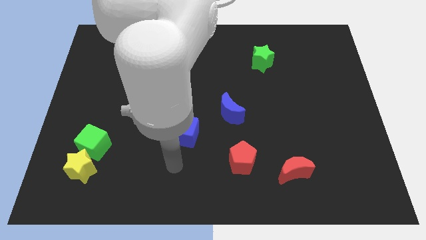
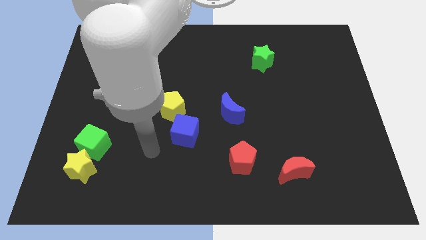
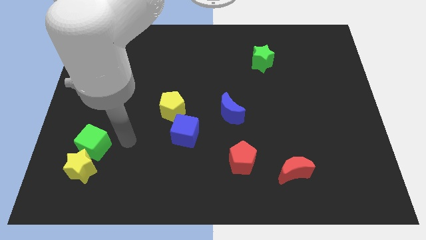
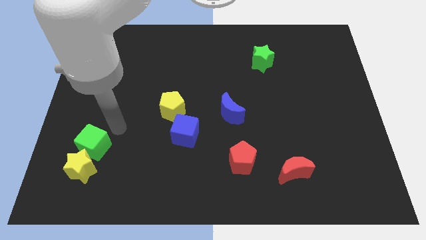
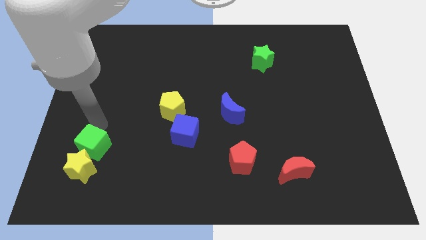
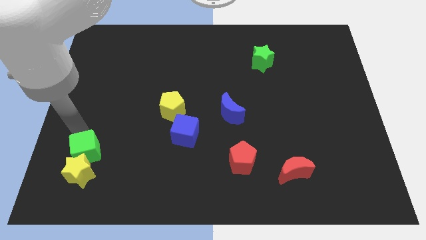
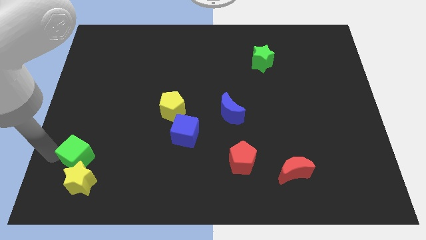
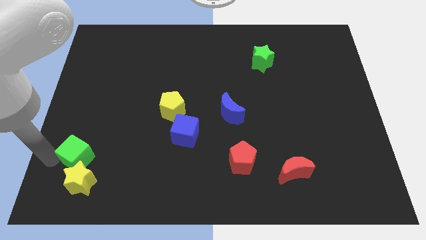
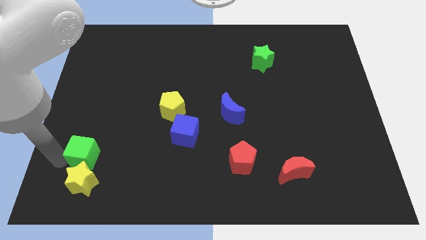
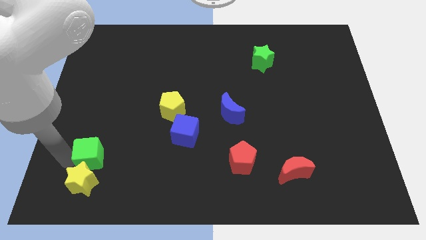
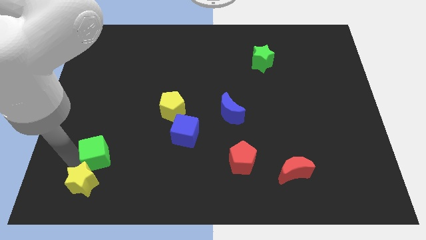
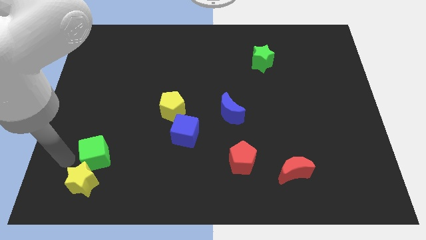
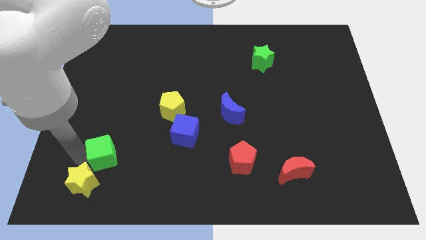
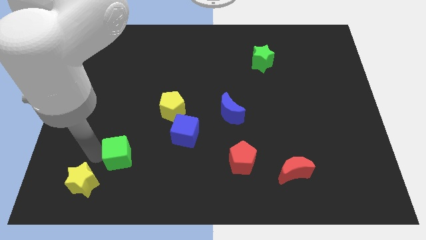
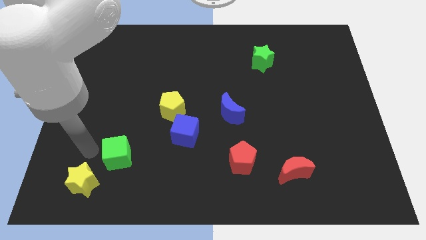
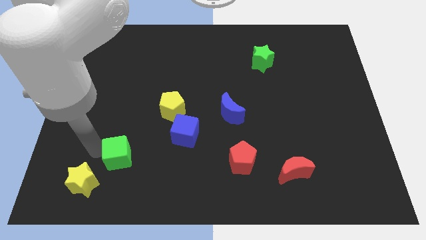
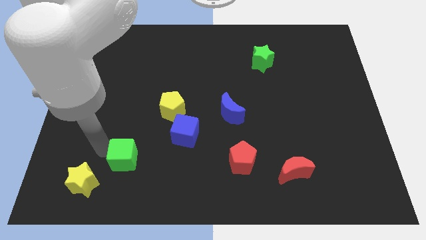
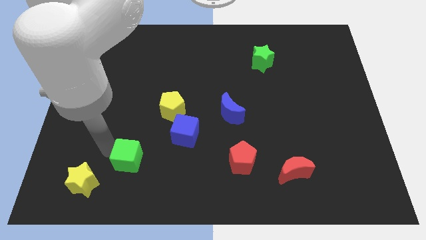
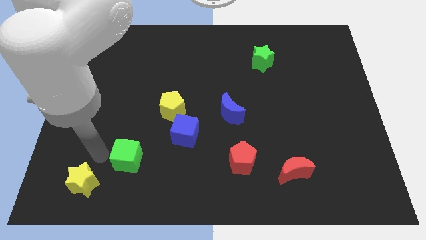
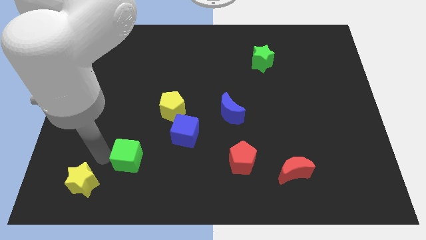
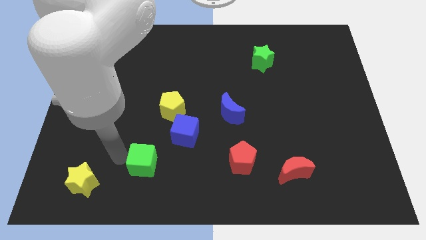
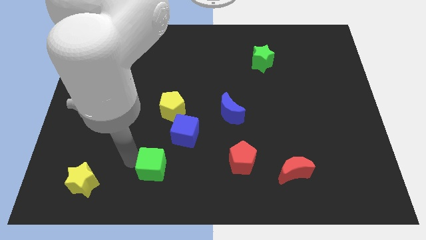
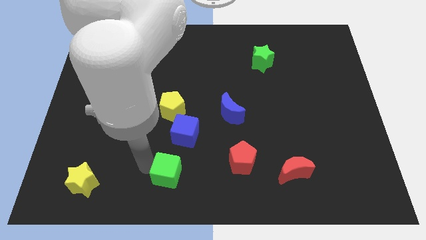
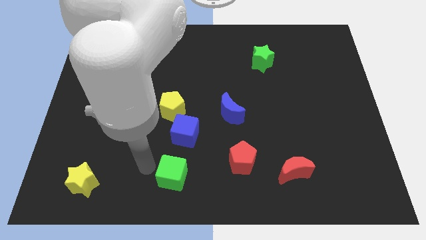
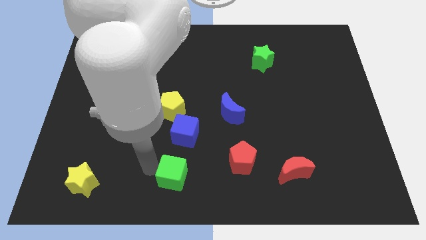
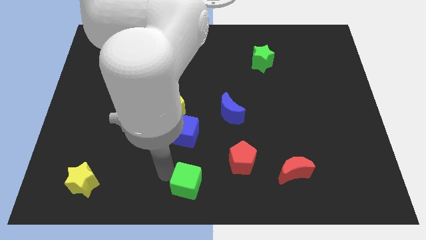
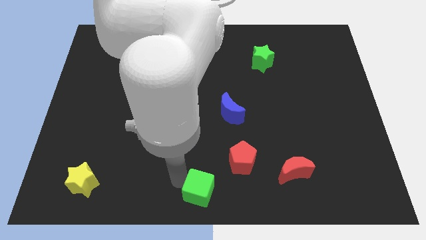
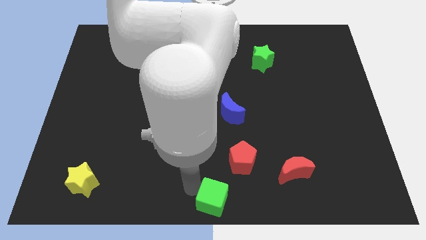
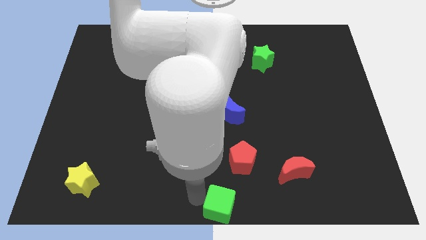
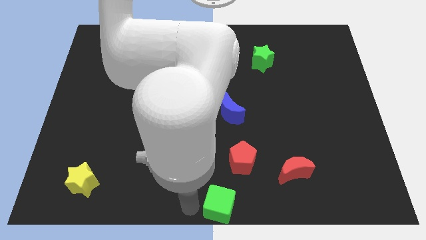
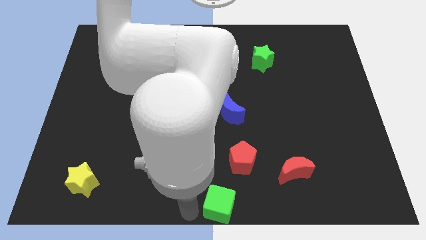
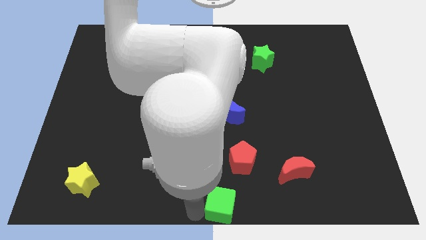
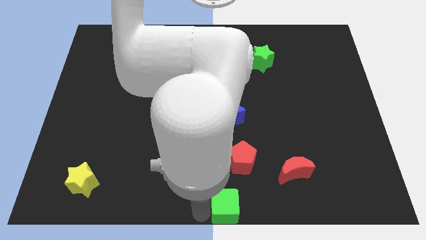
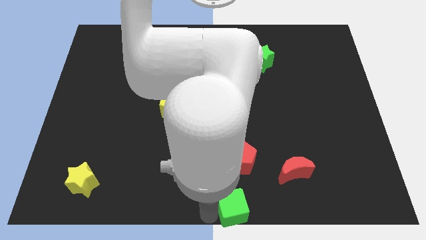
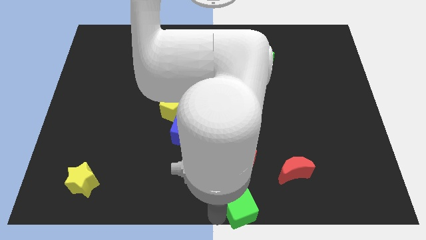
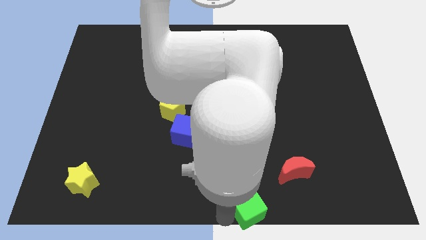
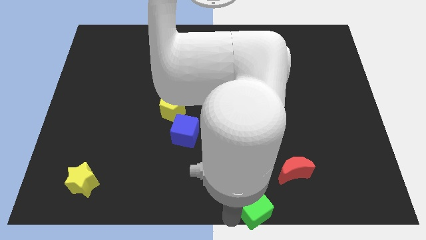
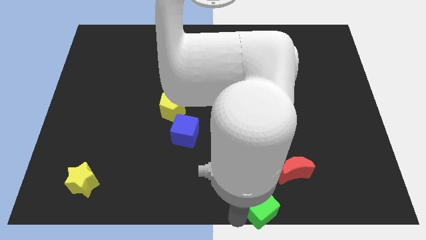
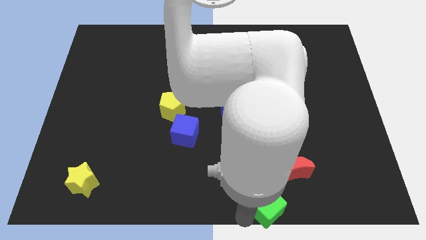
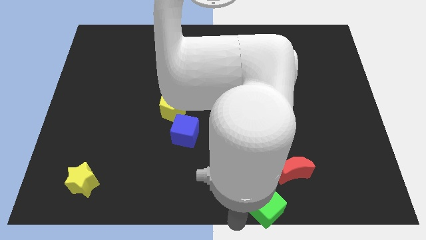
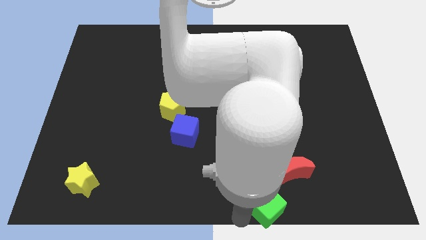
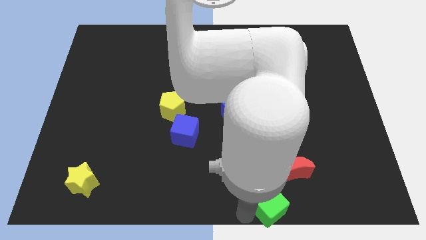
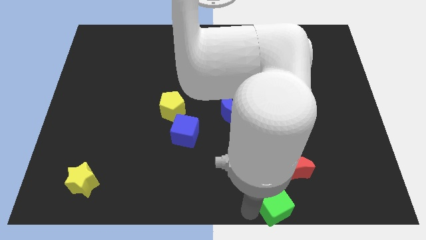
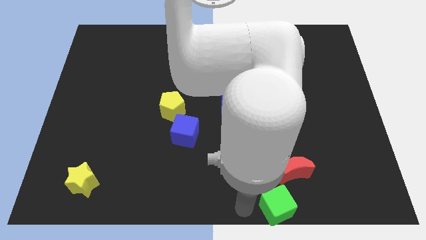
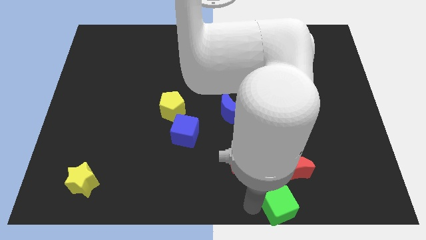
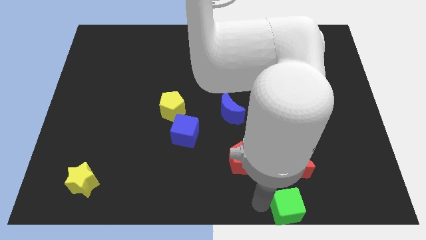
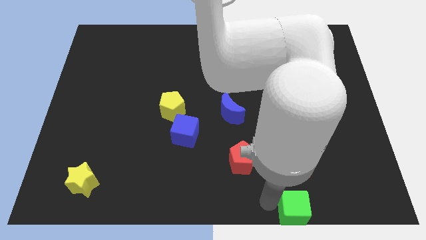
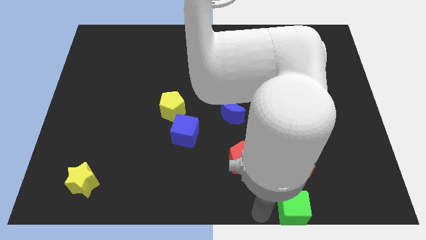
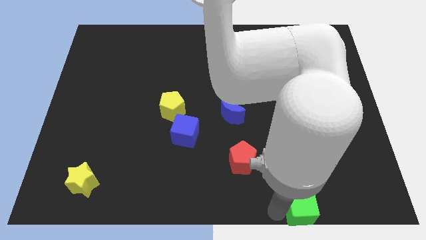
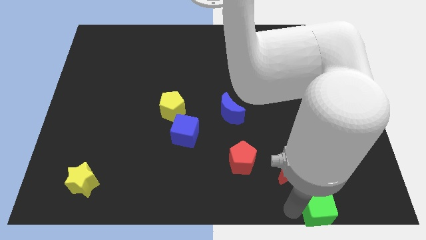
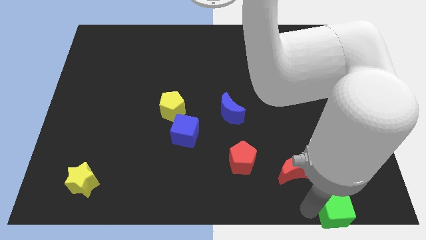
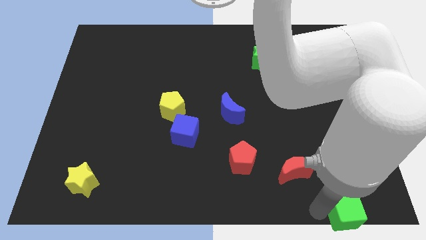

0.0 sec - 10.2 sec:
push the green cube to the bottom right corner

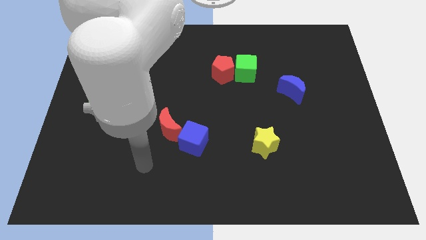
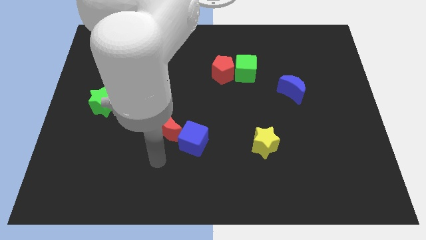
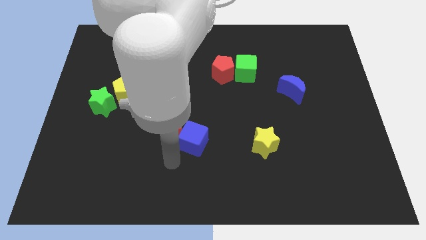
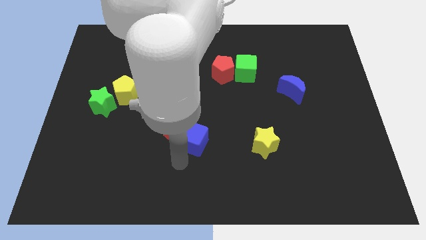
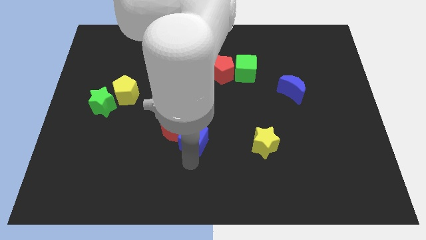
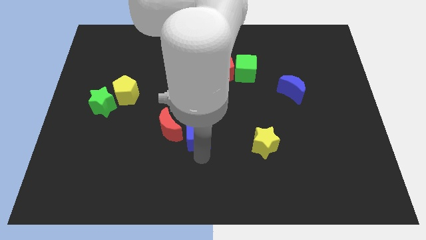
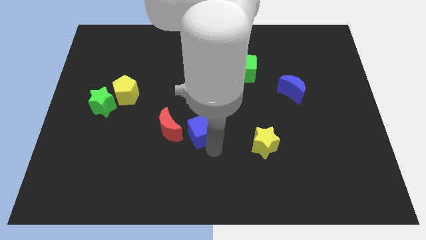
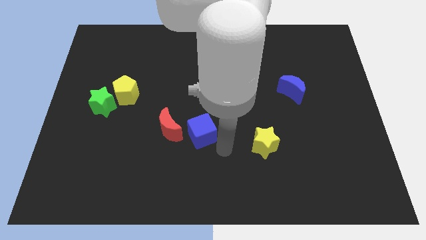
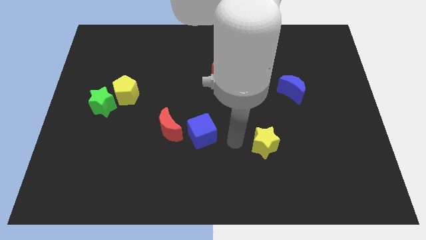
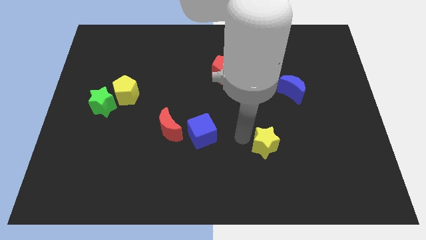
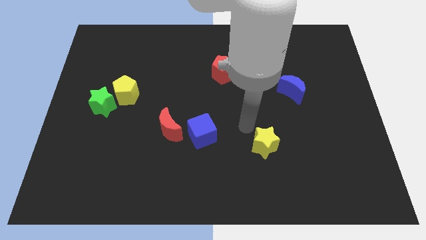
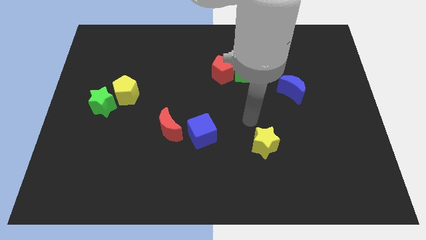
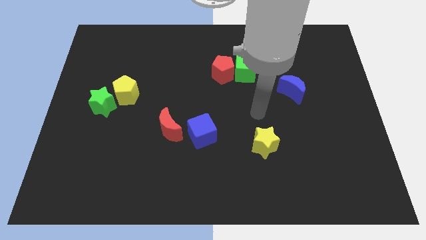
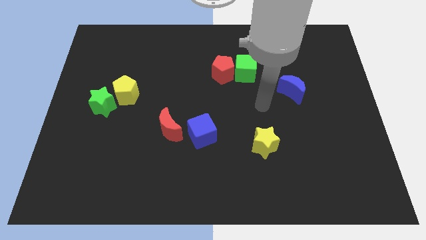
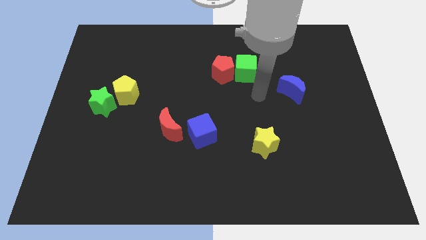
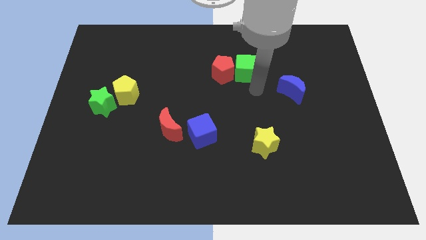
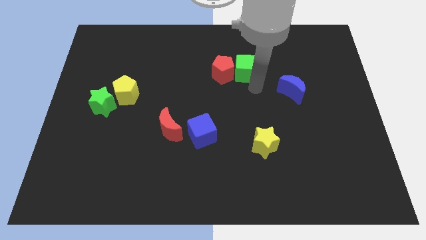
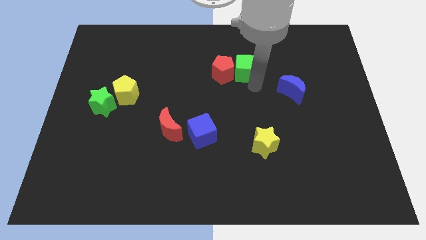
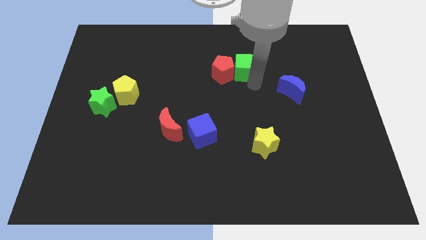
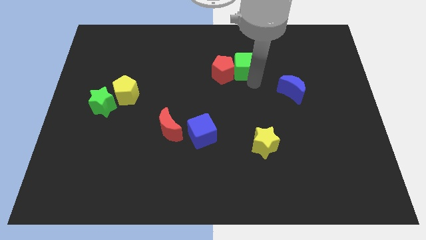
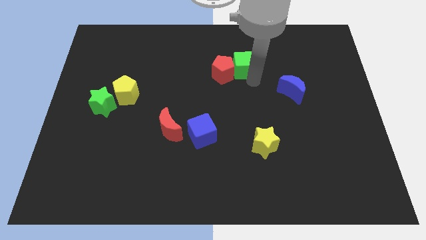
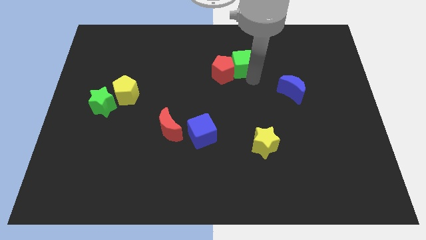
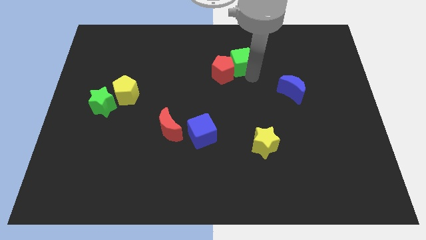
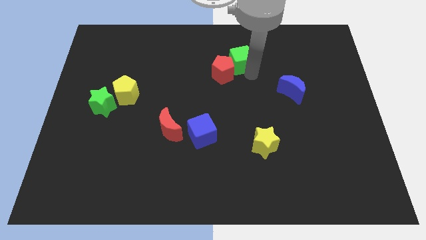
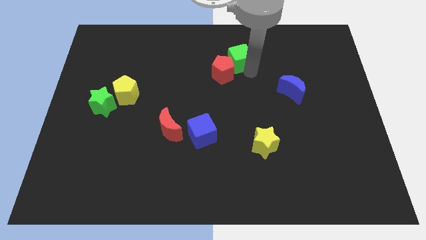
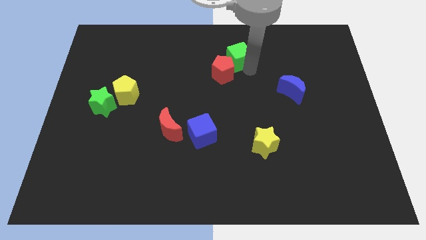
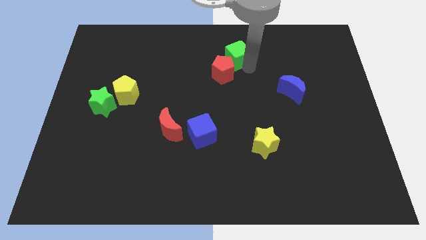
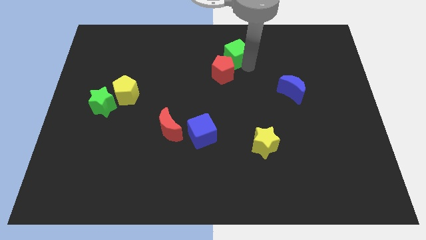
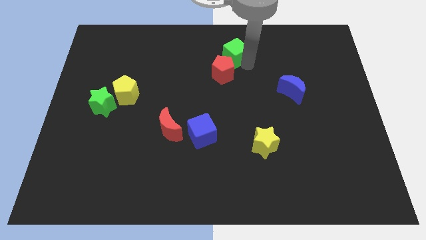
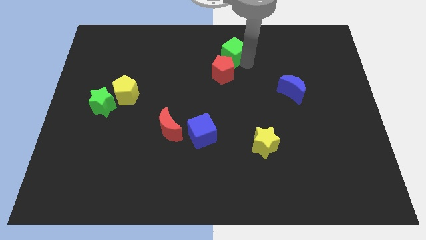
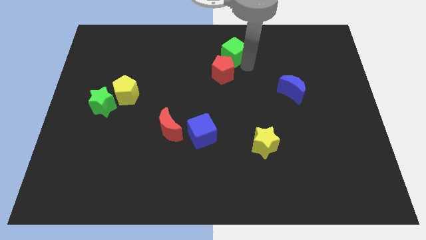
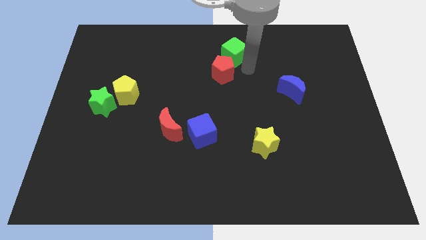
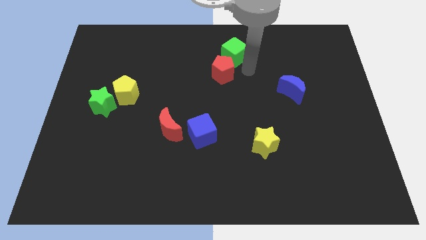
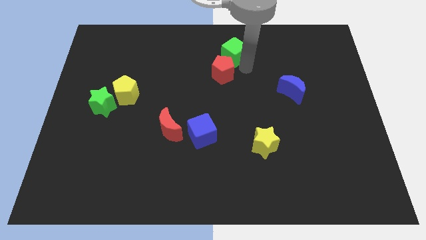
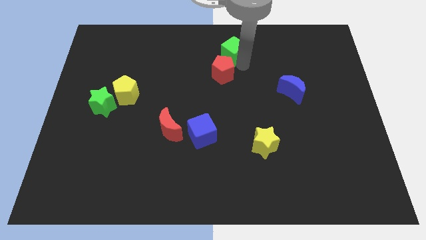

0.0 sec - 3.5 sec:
put the green cube to the towards your base
